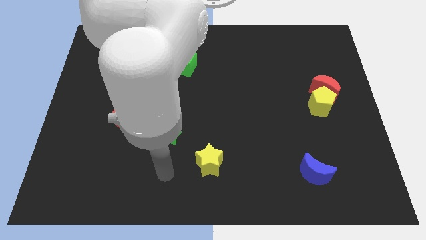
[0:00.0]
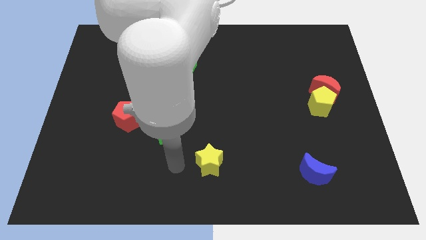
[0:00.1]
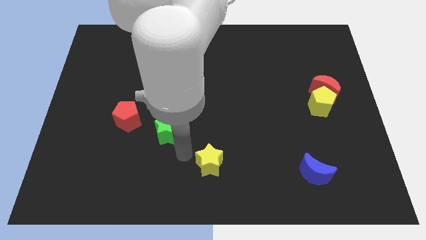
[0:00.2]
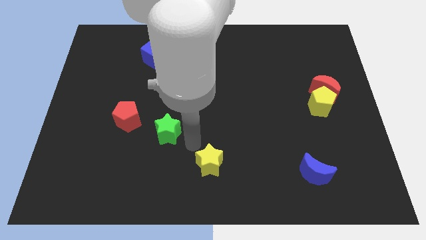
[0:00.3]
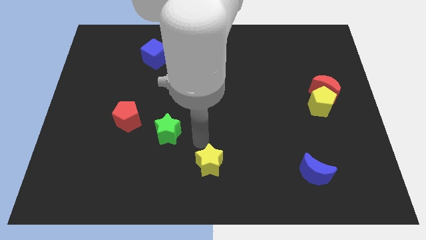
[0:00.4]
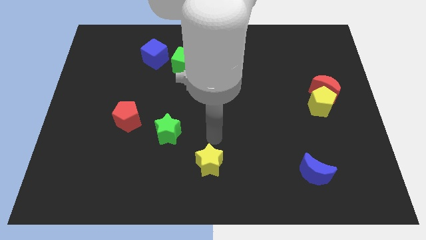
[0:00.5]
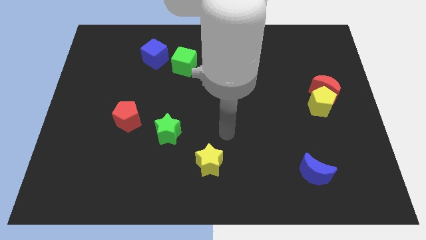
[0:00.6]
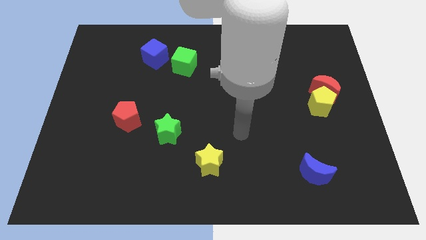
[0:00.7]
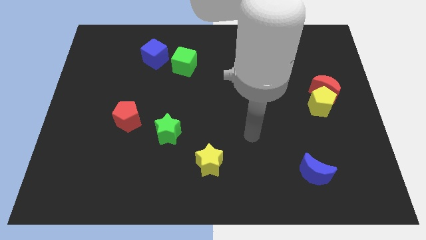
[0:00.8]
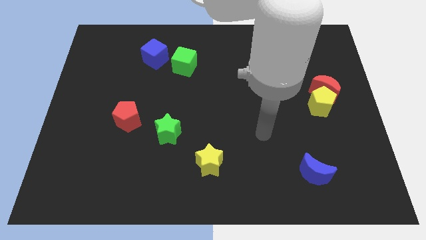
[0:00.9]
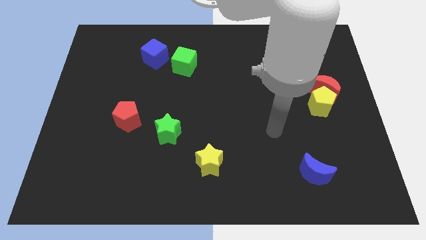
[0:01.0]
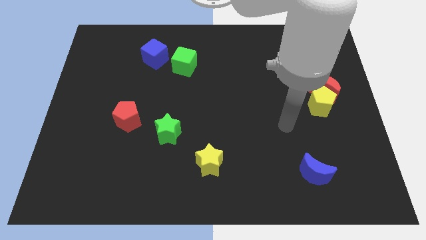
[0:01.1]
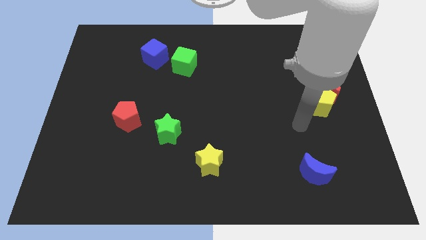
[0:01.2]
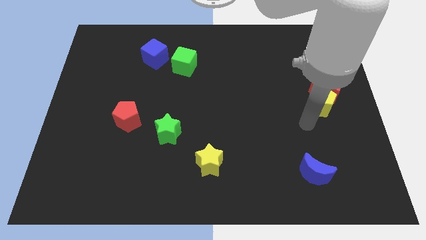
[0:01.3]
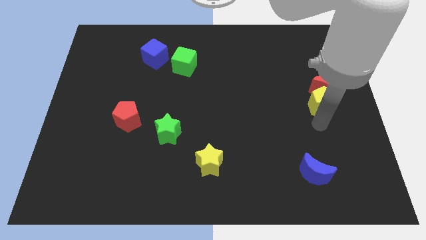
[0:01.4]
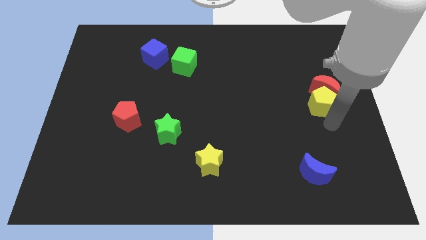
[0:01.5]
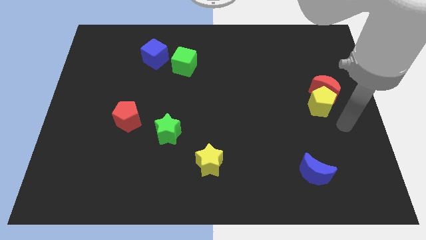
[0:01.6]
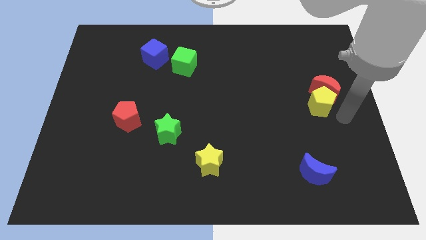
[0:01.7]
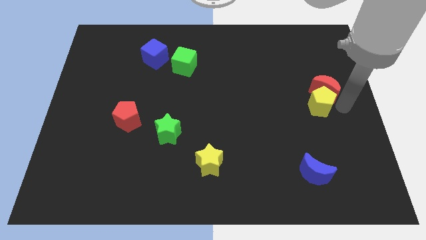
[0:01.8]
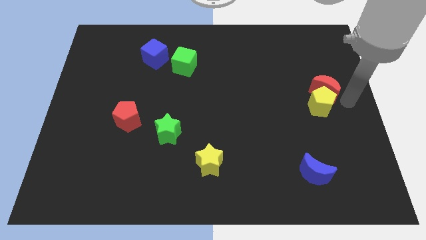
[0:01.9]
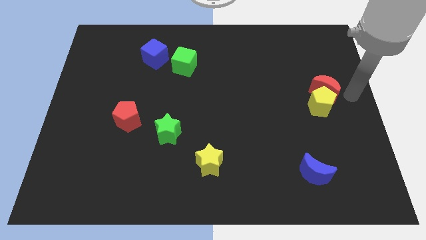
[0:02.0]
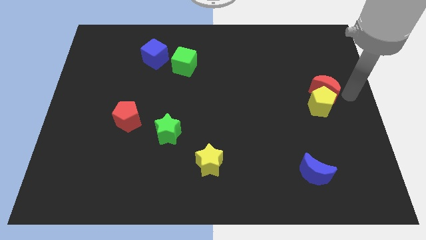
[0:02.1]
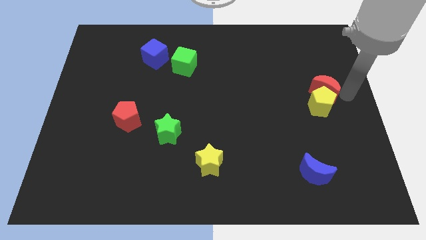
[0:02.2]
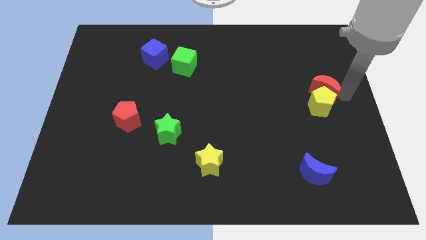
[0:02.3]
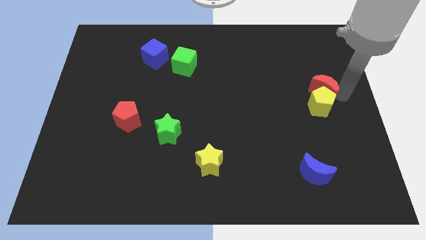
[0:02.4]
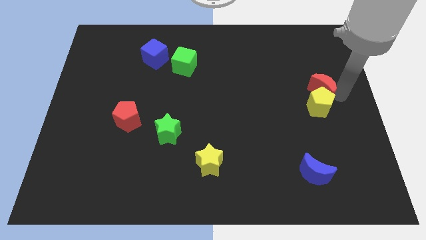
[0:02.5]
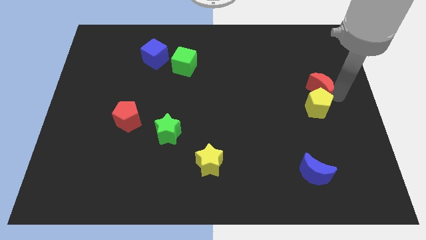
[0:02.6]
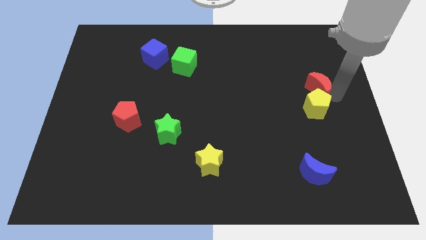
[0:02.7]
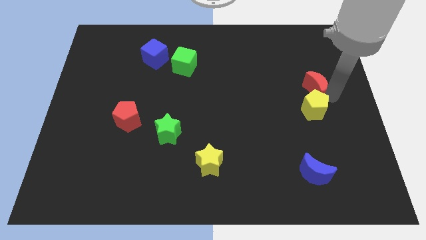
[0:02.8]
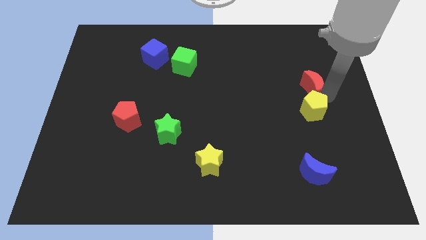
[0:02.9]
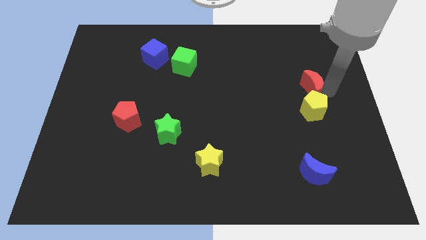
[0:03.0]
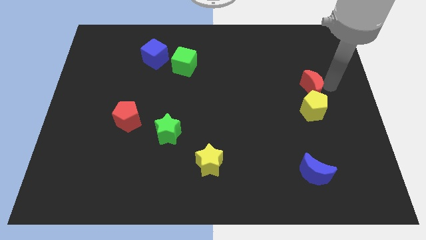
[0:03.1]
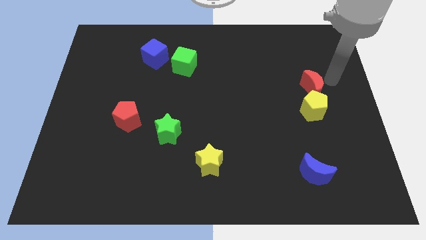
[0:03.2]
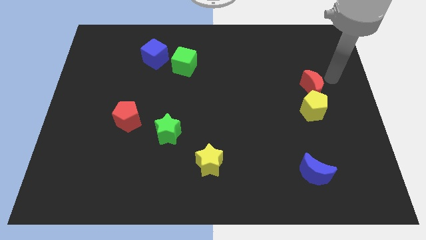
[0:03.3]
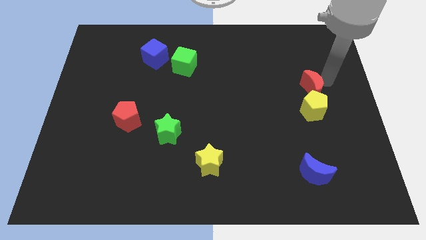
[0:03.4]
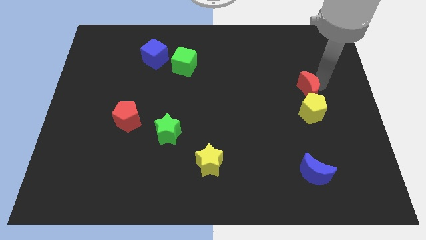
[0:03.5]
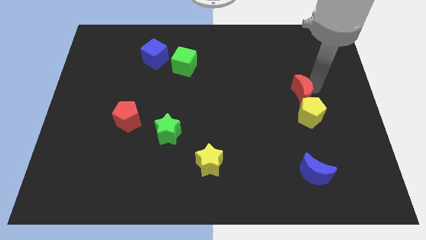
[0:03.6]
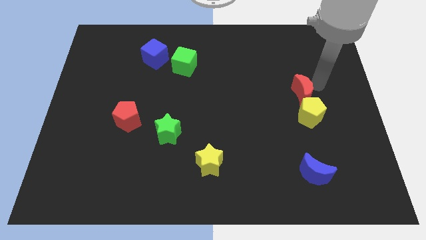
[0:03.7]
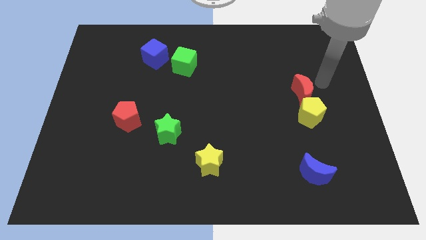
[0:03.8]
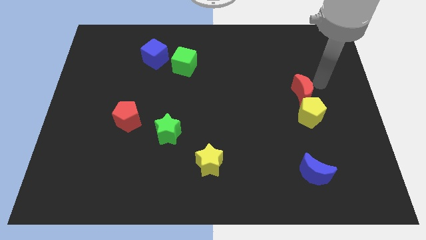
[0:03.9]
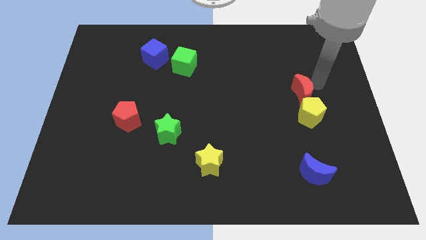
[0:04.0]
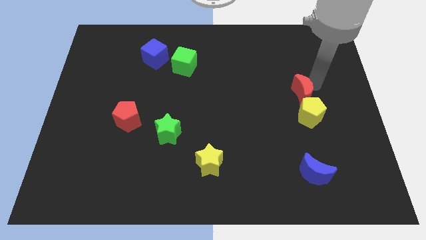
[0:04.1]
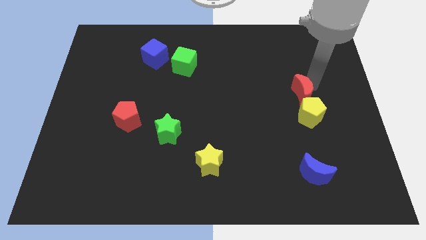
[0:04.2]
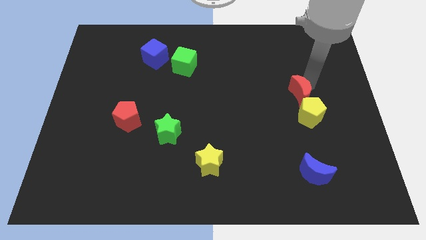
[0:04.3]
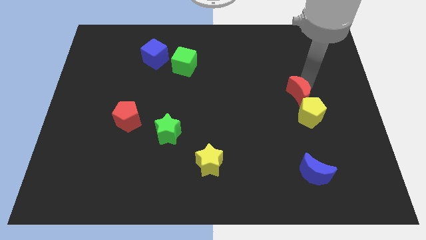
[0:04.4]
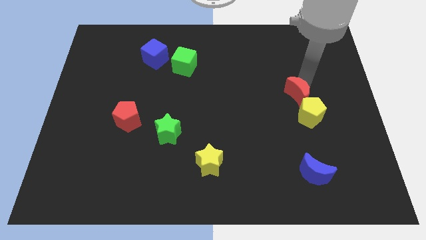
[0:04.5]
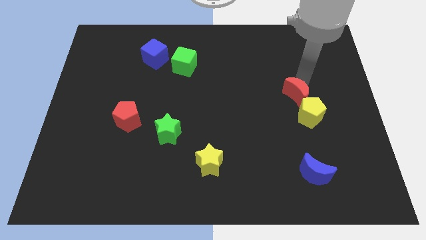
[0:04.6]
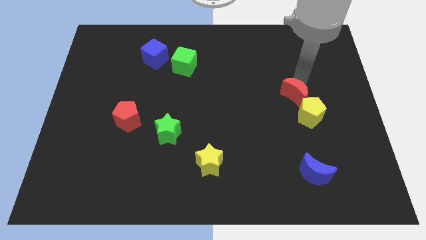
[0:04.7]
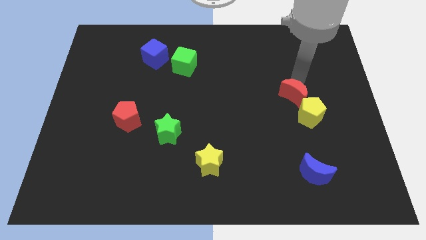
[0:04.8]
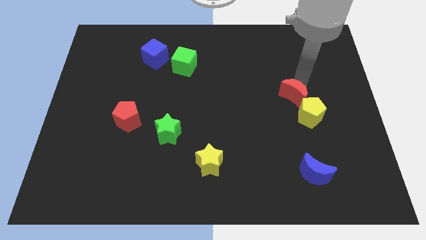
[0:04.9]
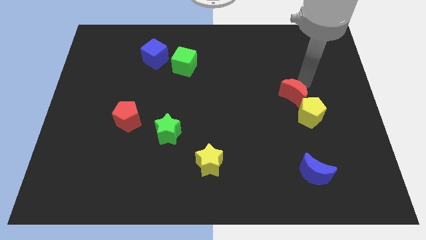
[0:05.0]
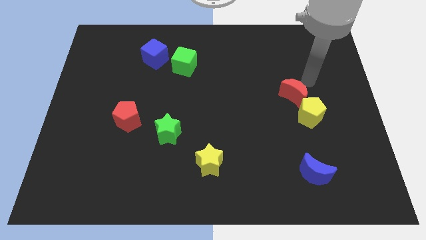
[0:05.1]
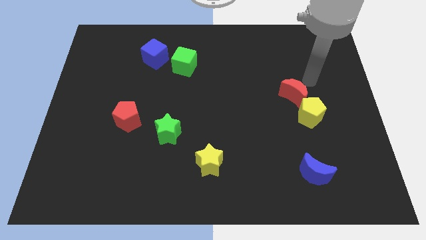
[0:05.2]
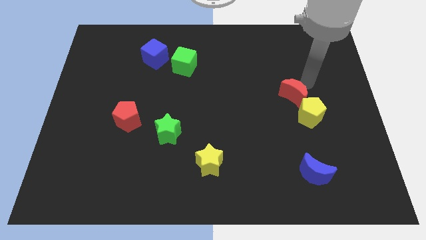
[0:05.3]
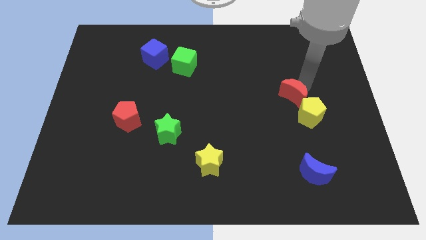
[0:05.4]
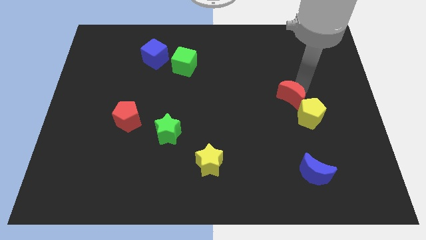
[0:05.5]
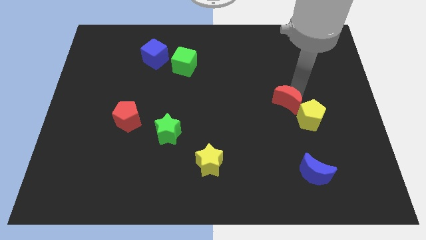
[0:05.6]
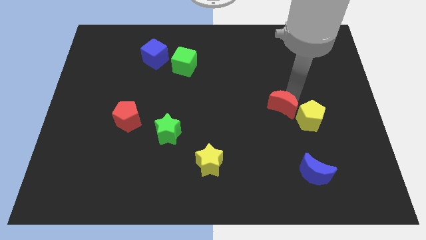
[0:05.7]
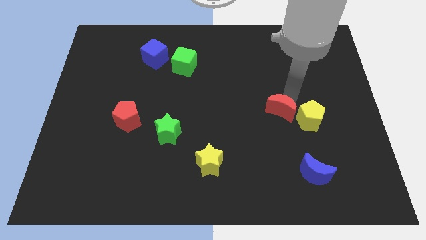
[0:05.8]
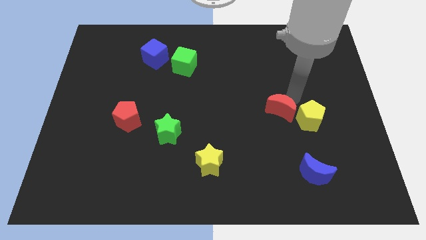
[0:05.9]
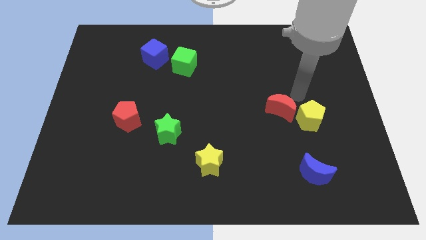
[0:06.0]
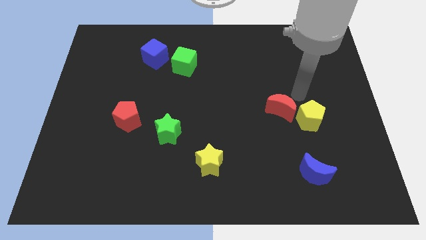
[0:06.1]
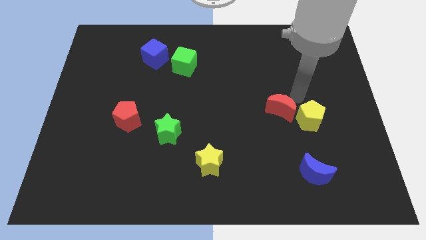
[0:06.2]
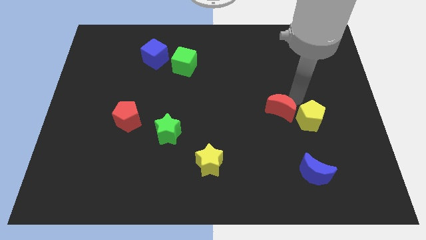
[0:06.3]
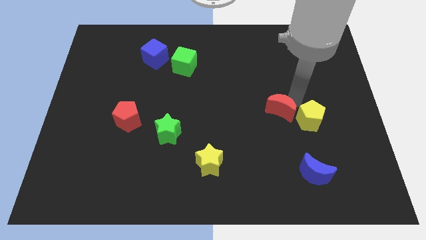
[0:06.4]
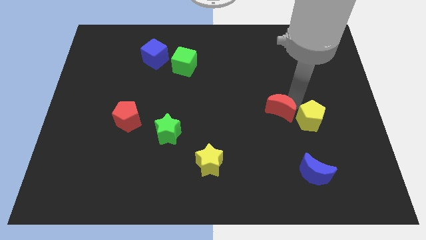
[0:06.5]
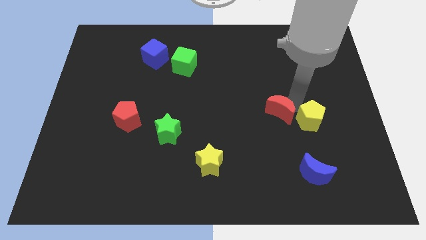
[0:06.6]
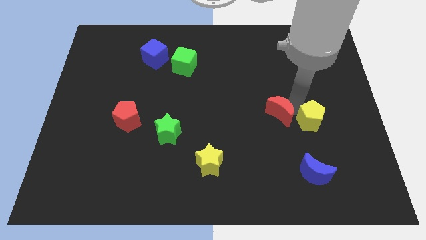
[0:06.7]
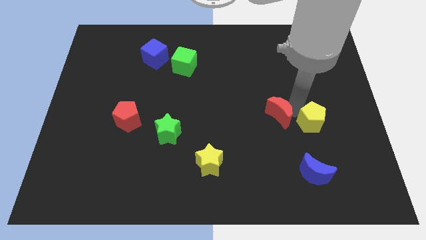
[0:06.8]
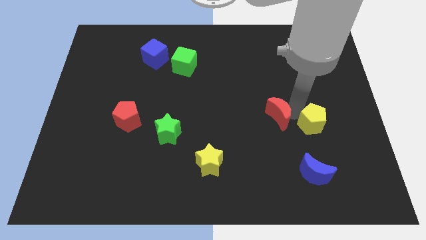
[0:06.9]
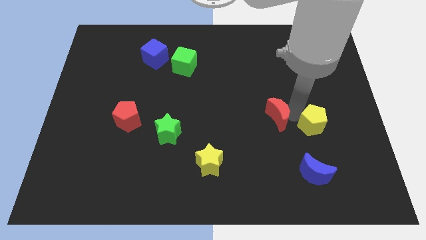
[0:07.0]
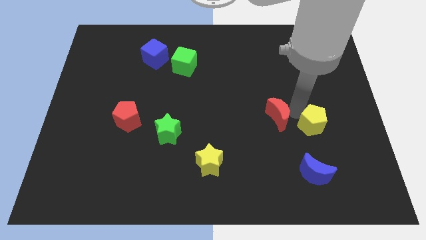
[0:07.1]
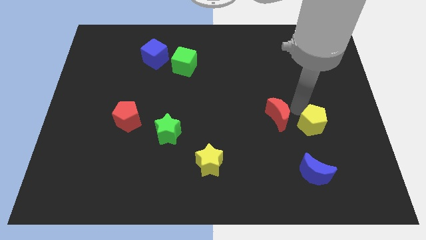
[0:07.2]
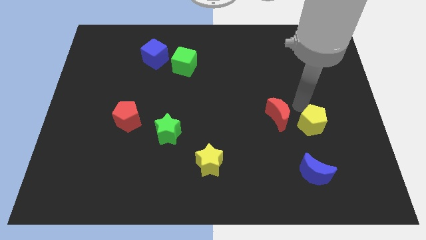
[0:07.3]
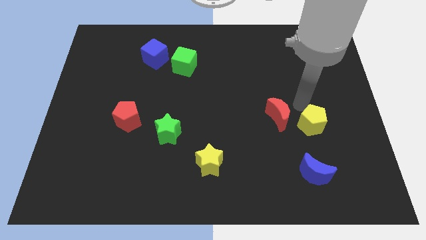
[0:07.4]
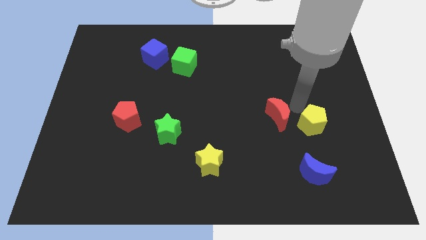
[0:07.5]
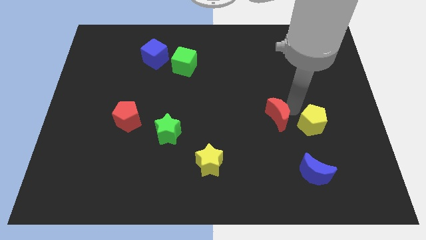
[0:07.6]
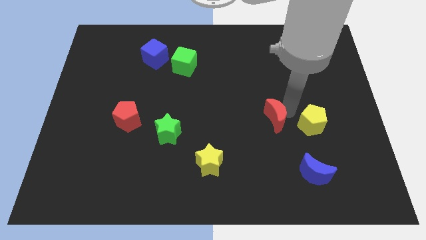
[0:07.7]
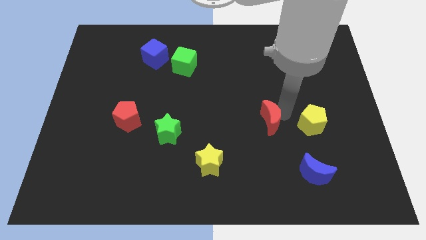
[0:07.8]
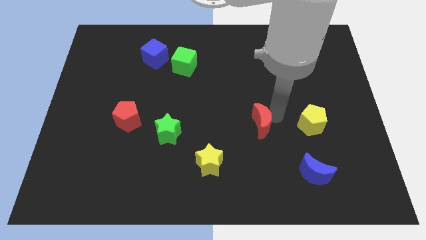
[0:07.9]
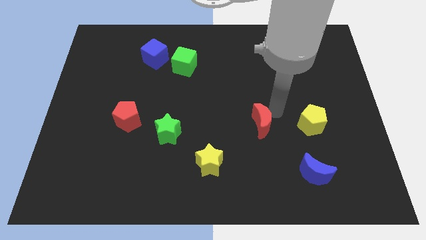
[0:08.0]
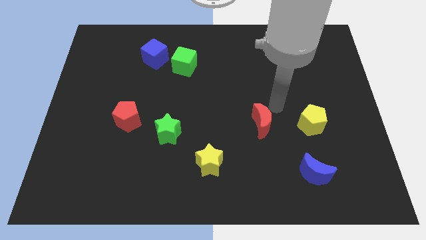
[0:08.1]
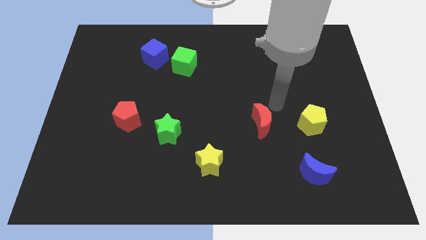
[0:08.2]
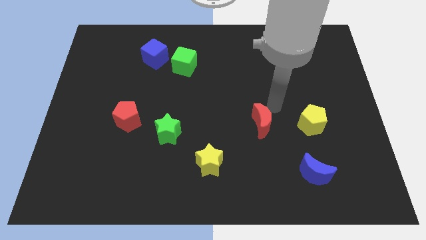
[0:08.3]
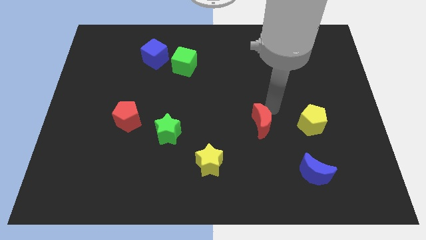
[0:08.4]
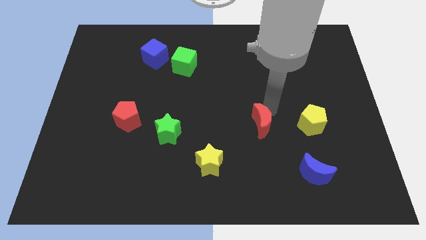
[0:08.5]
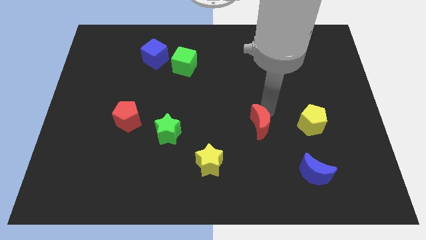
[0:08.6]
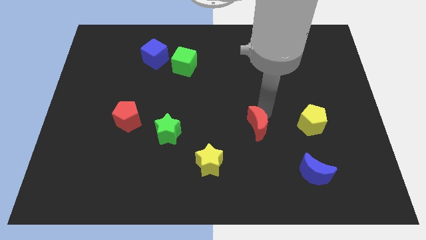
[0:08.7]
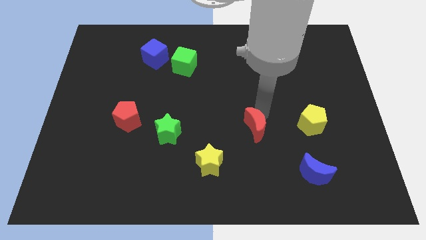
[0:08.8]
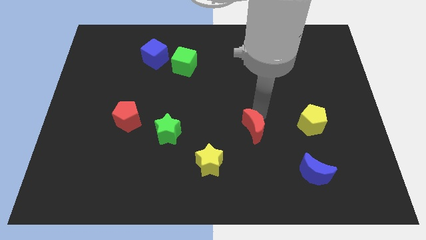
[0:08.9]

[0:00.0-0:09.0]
slide the red moon downwards and left
